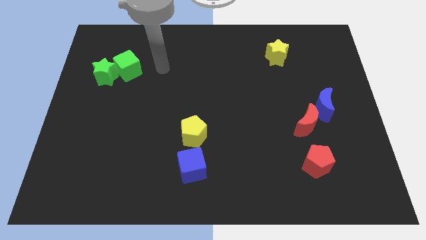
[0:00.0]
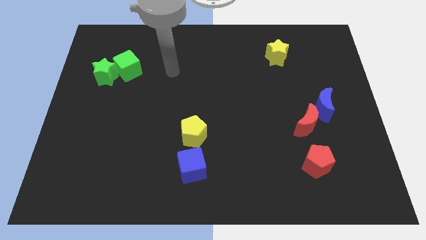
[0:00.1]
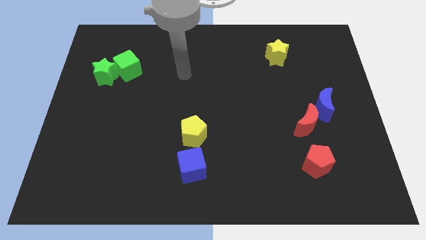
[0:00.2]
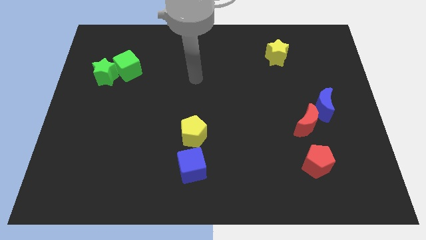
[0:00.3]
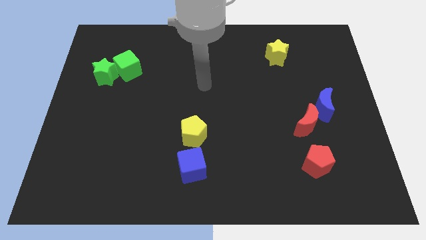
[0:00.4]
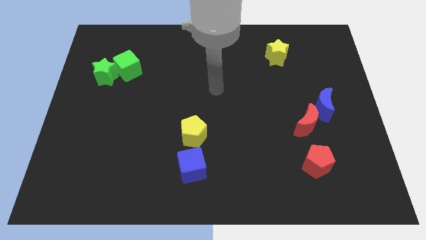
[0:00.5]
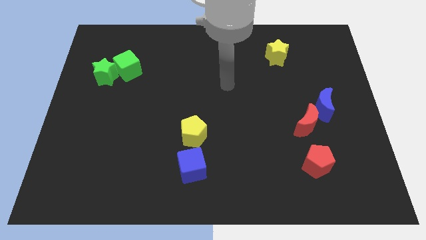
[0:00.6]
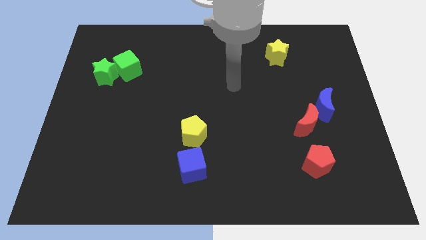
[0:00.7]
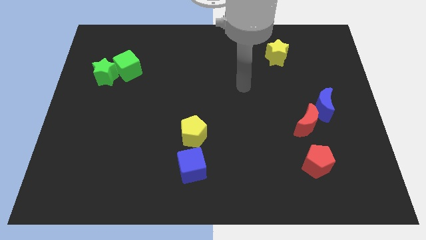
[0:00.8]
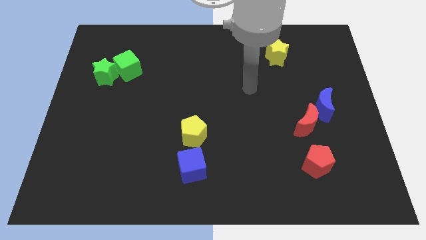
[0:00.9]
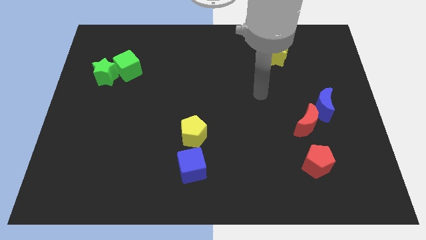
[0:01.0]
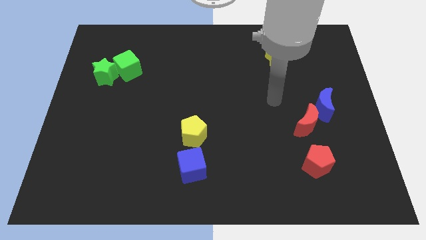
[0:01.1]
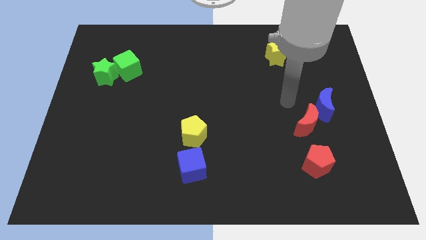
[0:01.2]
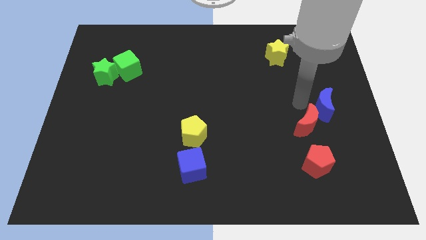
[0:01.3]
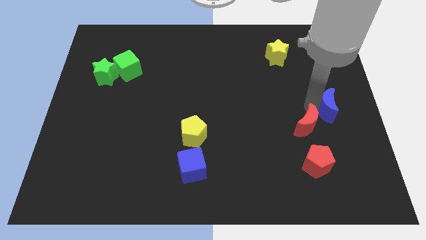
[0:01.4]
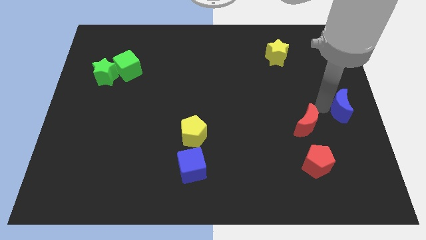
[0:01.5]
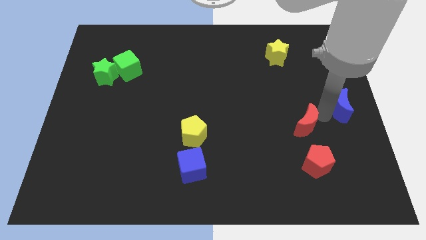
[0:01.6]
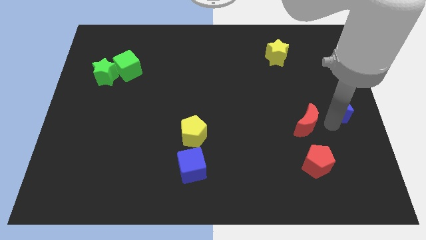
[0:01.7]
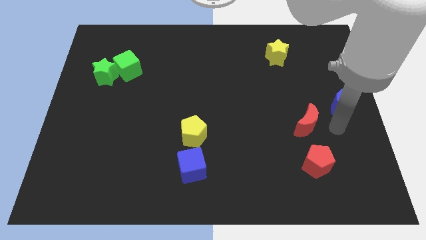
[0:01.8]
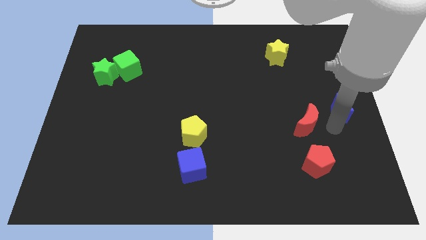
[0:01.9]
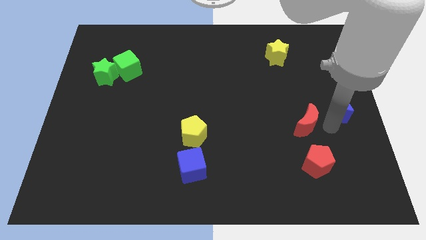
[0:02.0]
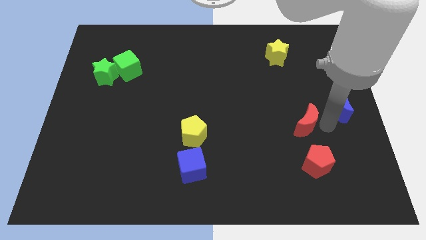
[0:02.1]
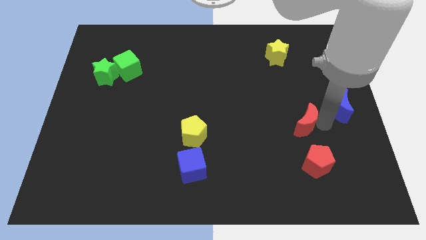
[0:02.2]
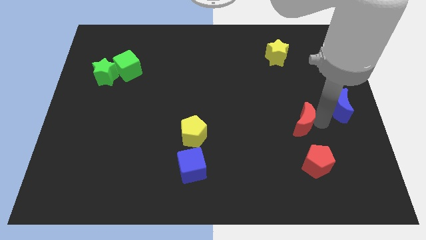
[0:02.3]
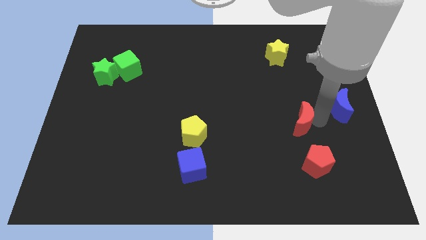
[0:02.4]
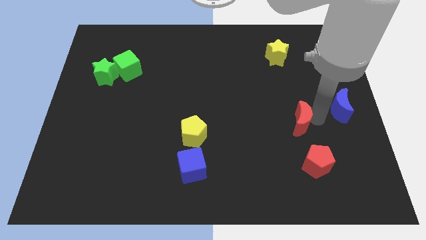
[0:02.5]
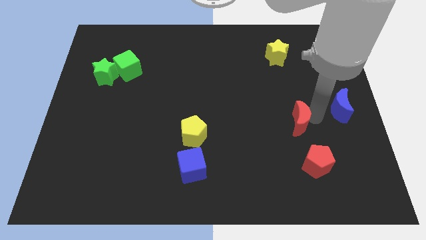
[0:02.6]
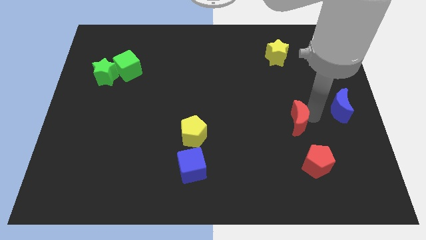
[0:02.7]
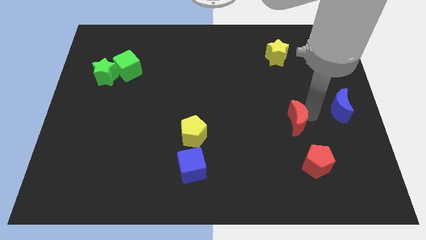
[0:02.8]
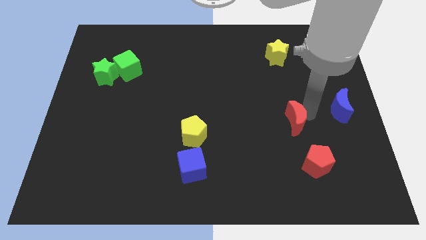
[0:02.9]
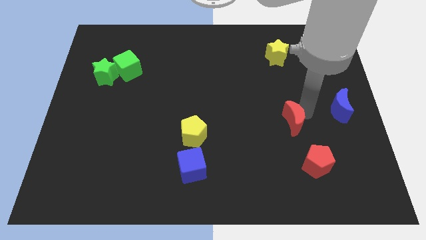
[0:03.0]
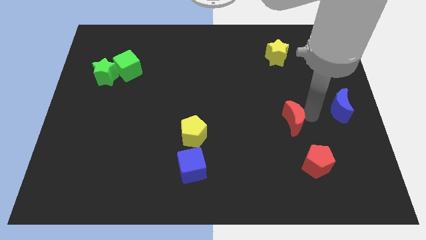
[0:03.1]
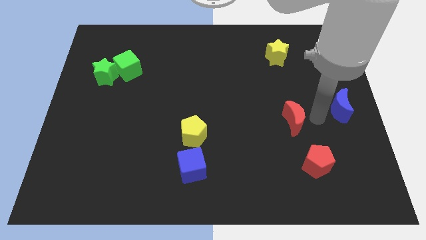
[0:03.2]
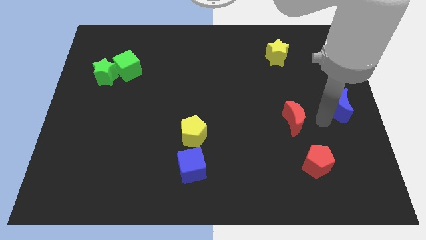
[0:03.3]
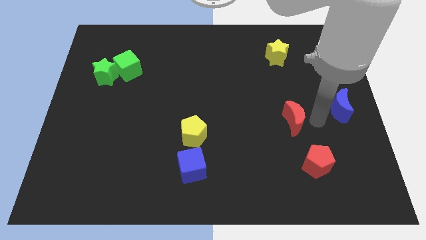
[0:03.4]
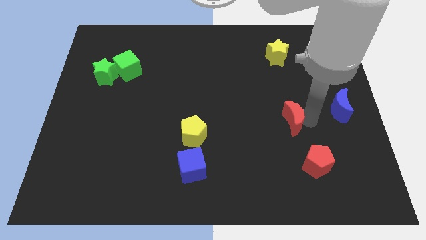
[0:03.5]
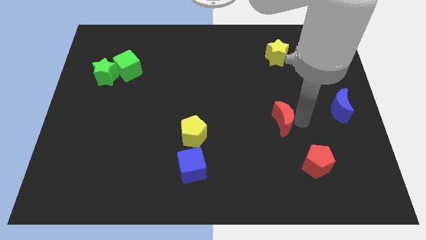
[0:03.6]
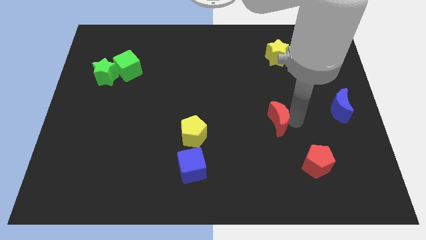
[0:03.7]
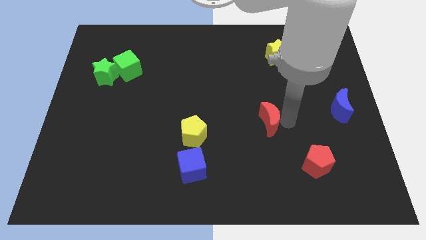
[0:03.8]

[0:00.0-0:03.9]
move the red moon to the left a little bit

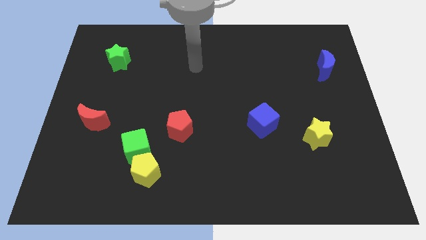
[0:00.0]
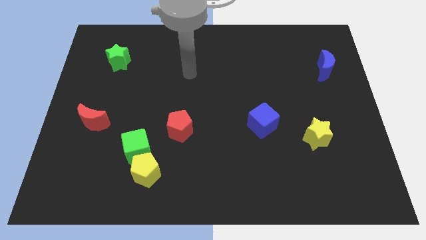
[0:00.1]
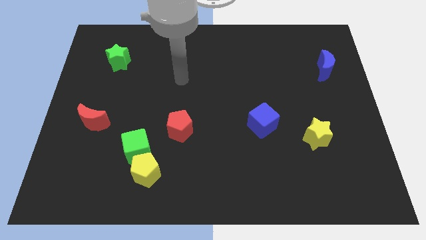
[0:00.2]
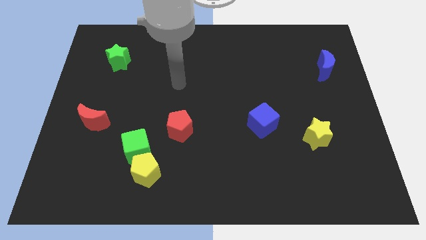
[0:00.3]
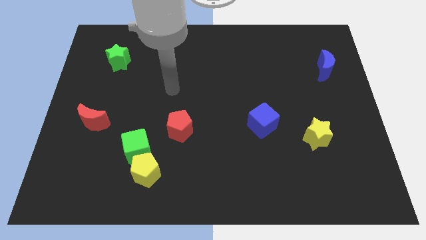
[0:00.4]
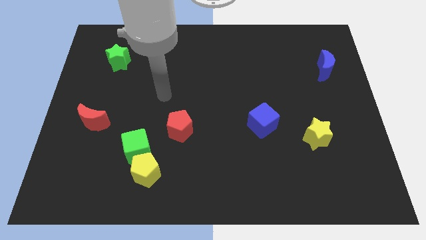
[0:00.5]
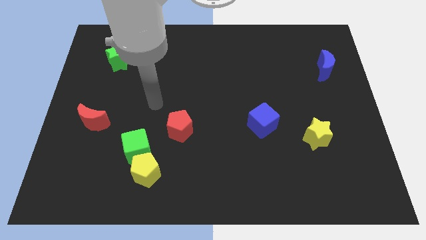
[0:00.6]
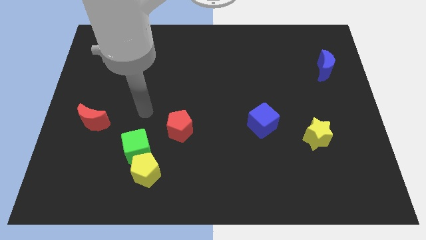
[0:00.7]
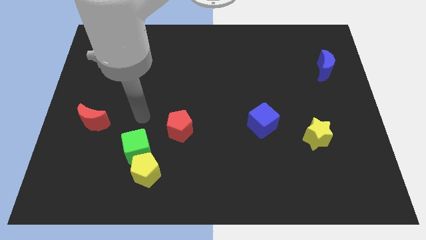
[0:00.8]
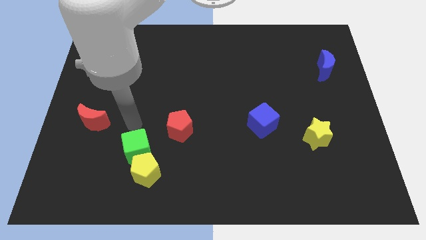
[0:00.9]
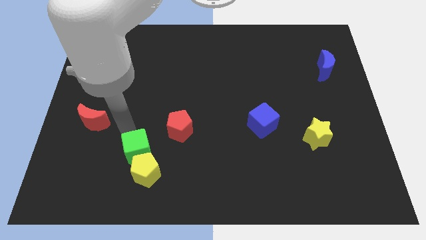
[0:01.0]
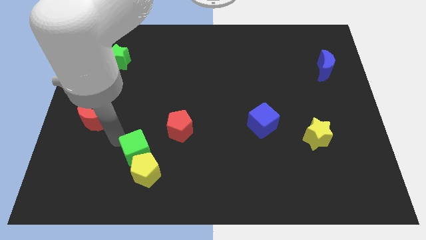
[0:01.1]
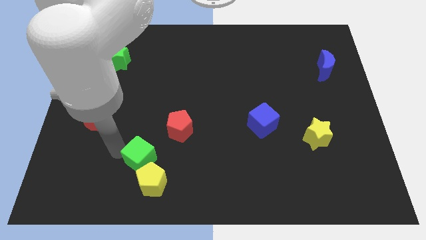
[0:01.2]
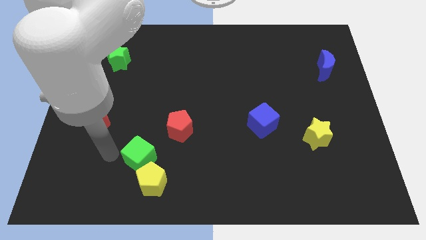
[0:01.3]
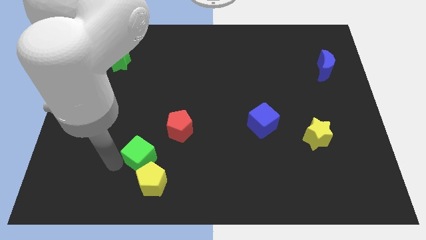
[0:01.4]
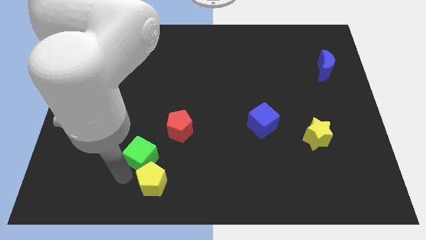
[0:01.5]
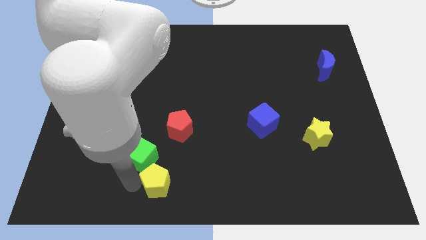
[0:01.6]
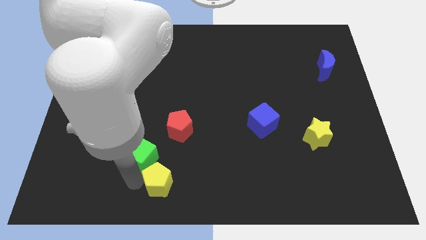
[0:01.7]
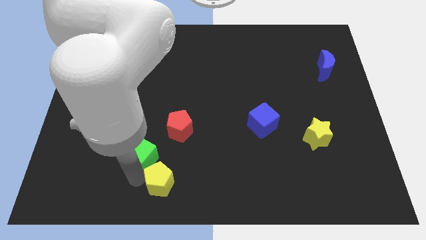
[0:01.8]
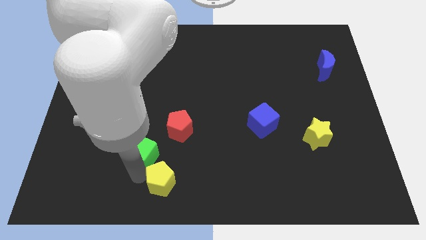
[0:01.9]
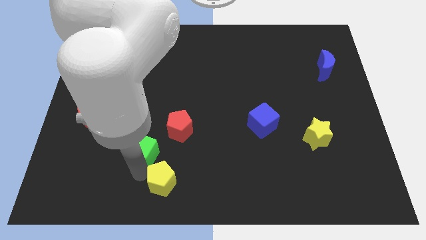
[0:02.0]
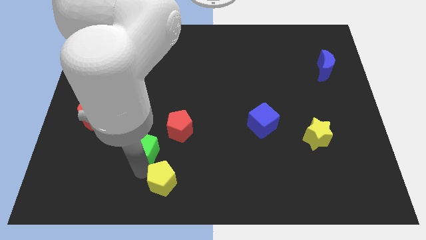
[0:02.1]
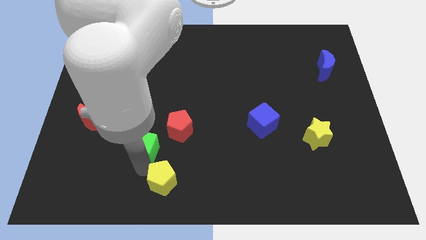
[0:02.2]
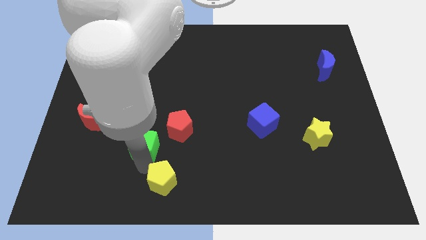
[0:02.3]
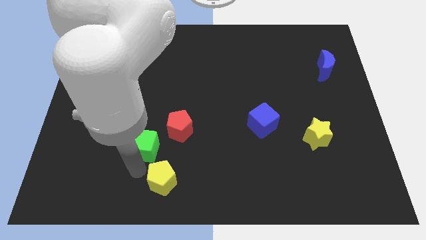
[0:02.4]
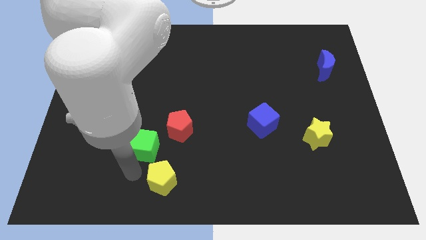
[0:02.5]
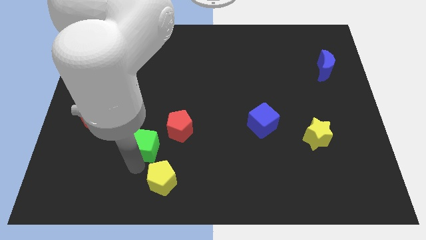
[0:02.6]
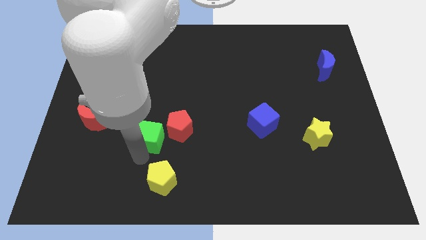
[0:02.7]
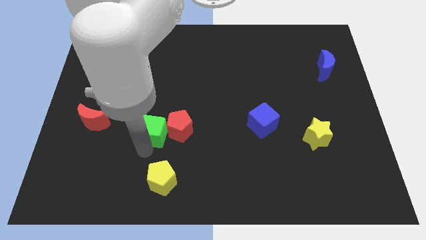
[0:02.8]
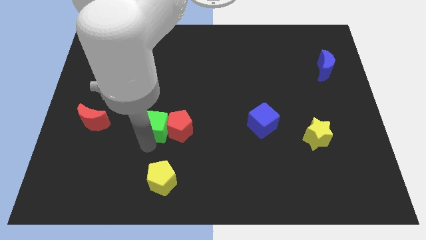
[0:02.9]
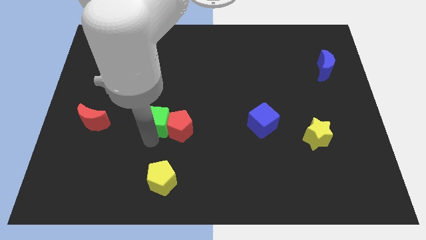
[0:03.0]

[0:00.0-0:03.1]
move the green cube a little upwards and right

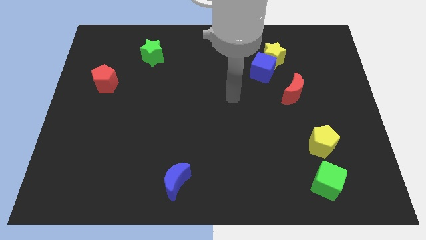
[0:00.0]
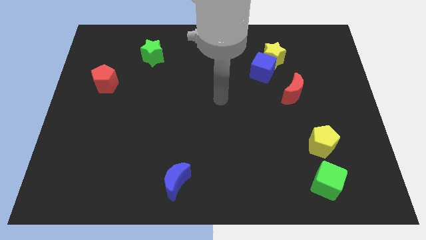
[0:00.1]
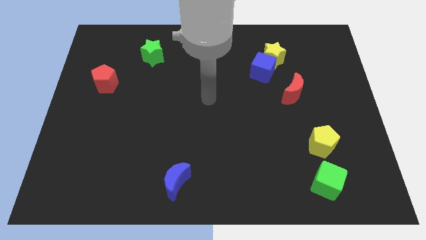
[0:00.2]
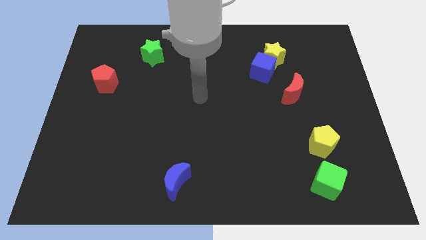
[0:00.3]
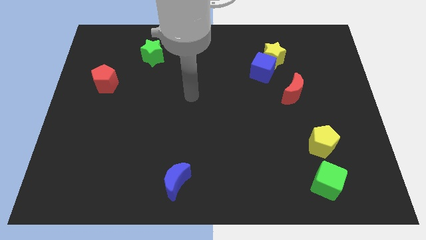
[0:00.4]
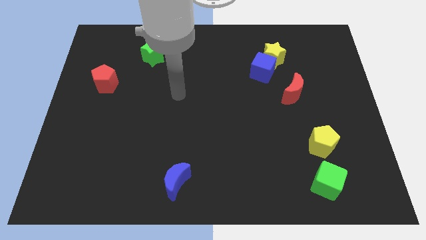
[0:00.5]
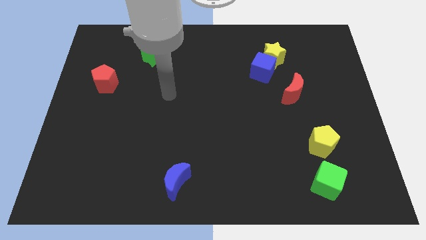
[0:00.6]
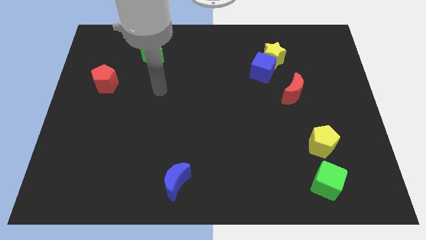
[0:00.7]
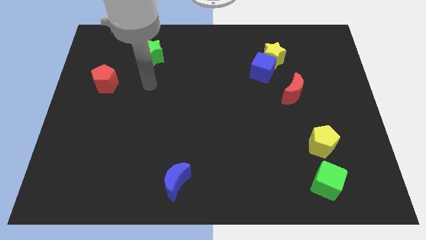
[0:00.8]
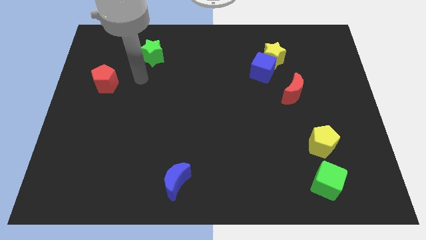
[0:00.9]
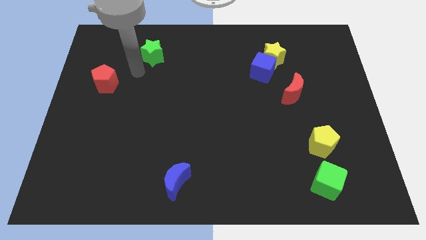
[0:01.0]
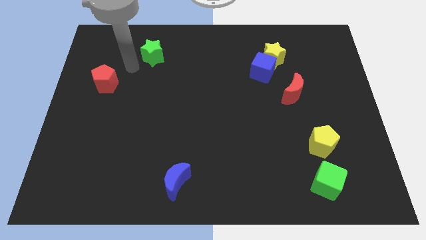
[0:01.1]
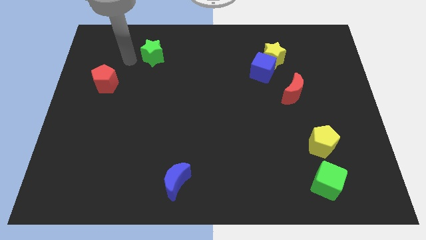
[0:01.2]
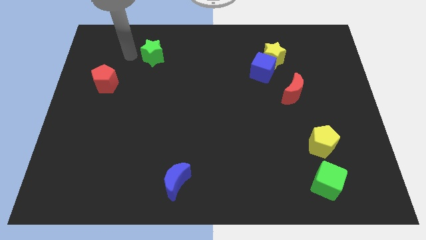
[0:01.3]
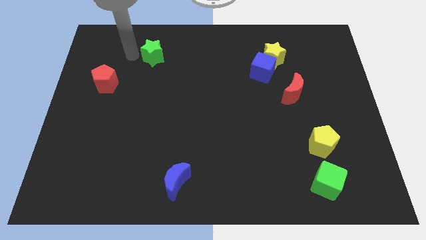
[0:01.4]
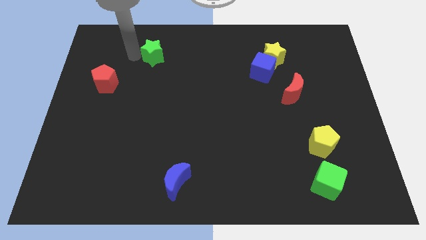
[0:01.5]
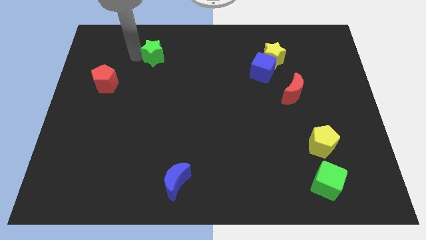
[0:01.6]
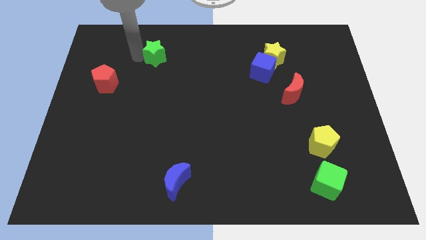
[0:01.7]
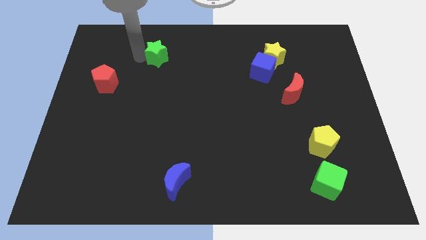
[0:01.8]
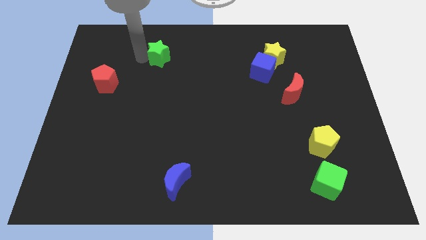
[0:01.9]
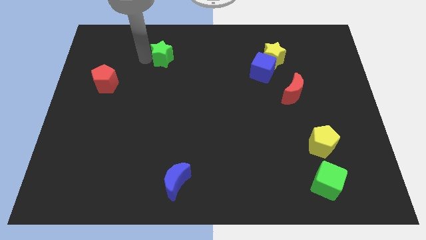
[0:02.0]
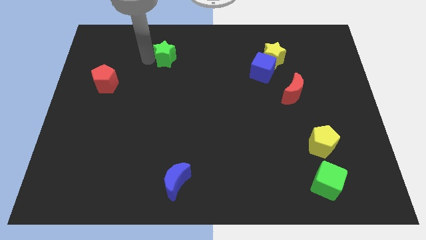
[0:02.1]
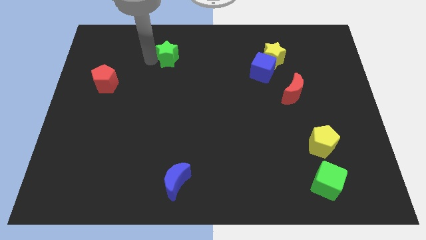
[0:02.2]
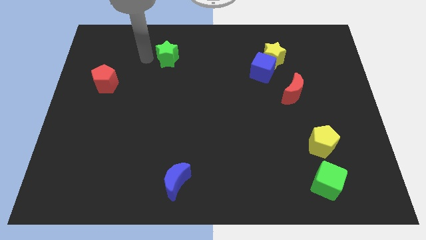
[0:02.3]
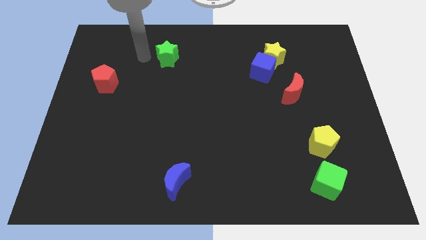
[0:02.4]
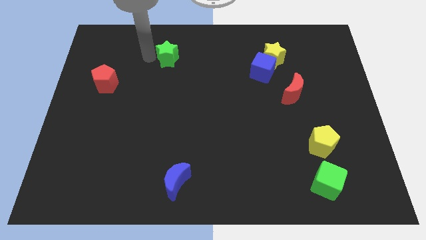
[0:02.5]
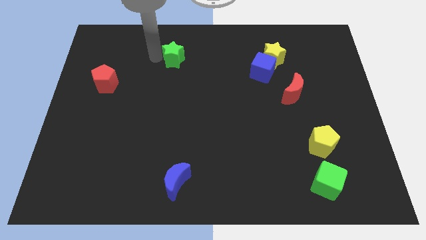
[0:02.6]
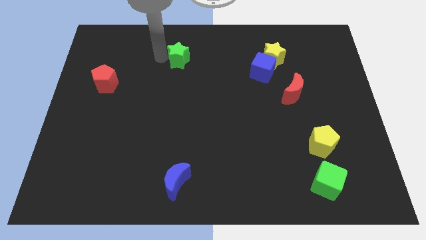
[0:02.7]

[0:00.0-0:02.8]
slightly slide the green star to the right
